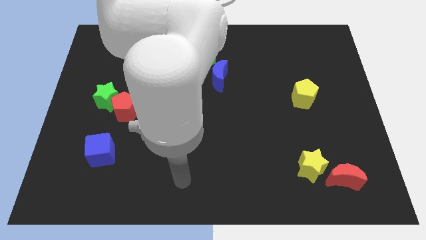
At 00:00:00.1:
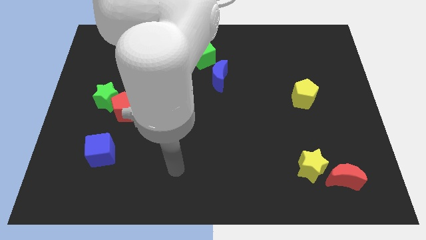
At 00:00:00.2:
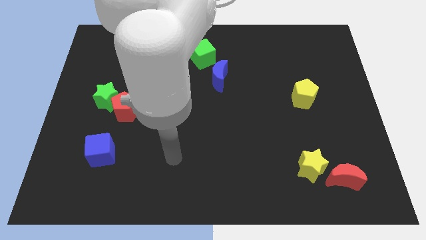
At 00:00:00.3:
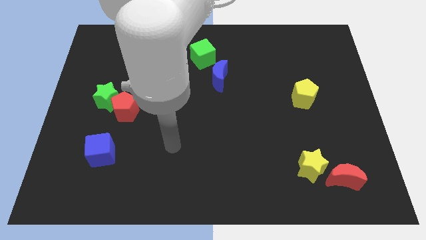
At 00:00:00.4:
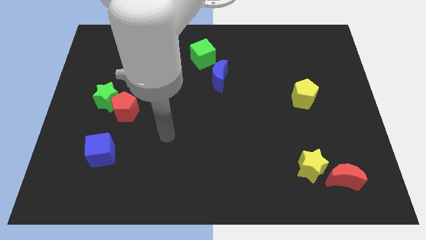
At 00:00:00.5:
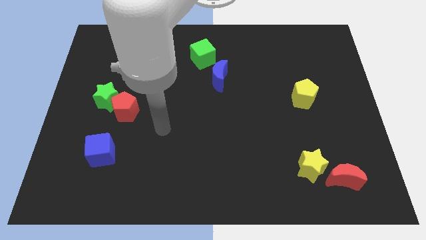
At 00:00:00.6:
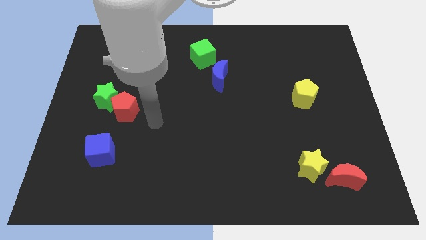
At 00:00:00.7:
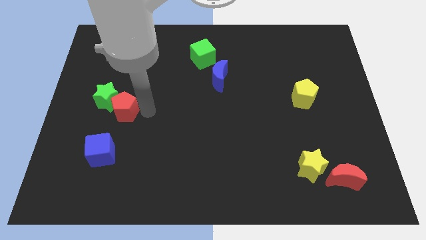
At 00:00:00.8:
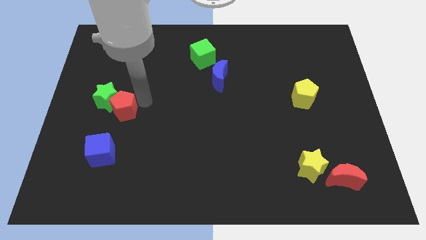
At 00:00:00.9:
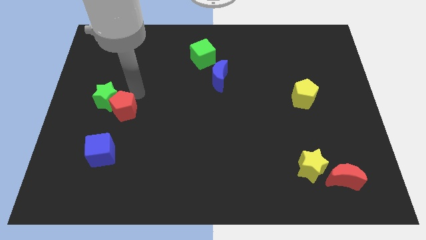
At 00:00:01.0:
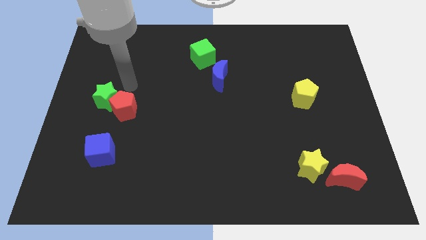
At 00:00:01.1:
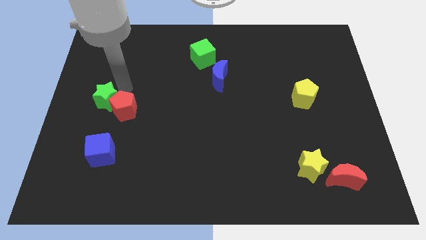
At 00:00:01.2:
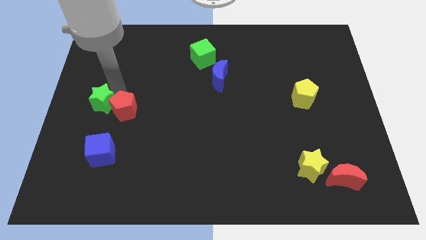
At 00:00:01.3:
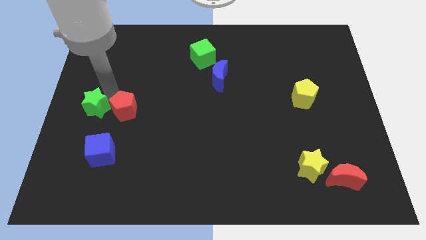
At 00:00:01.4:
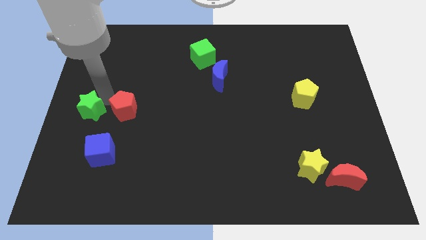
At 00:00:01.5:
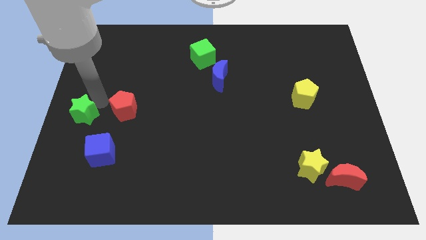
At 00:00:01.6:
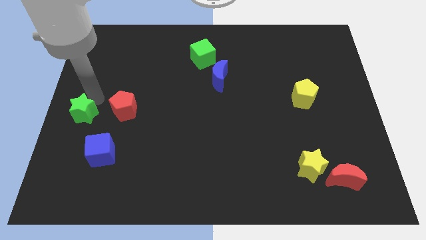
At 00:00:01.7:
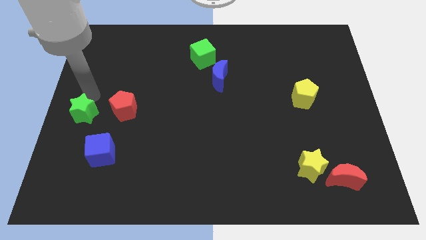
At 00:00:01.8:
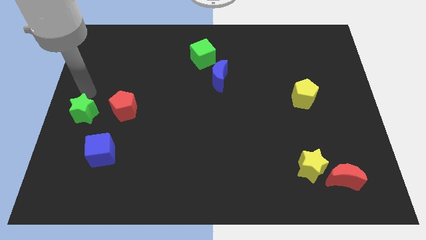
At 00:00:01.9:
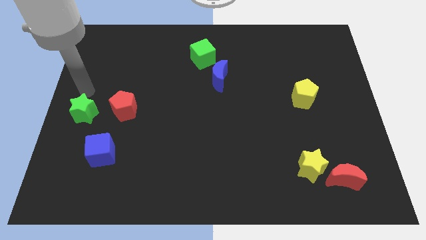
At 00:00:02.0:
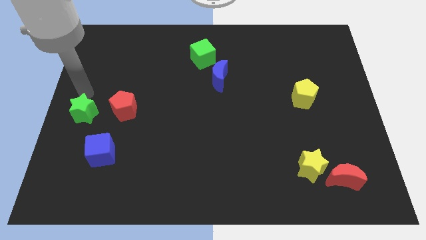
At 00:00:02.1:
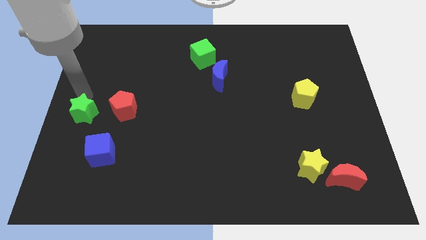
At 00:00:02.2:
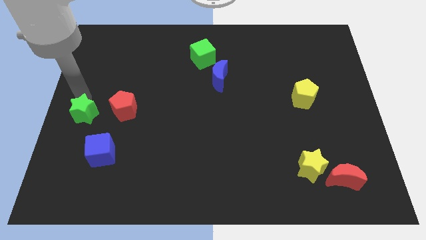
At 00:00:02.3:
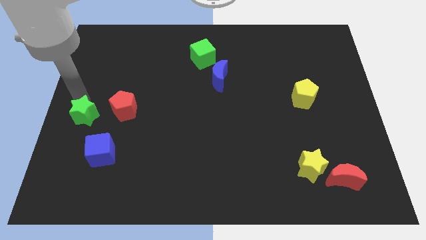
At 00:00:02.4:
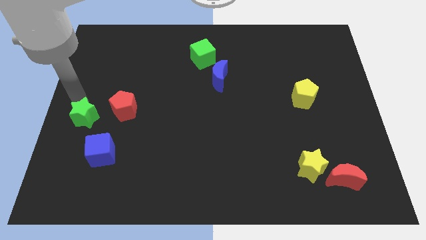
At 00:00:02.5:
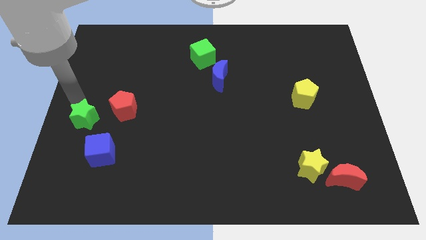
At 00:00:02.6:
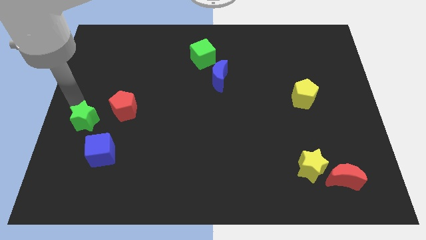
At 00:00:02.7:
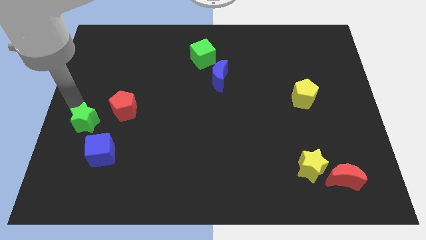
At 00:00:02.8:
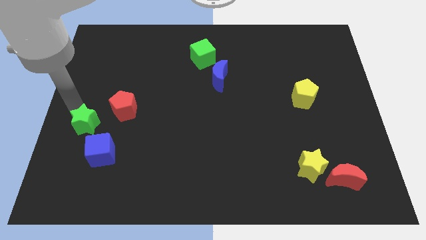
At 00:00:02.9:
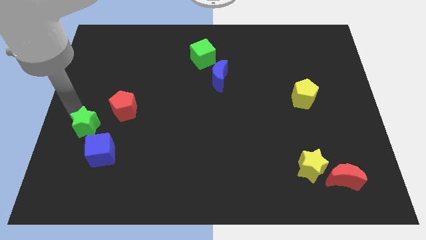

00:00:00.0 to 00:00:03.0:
move the green star down slightly

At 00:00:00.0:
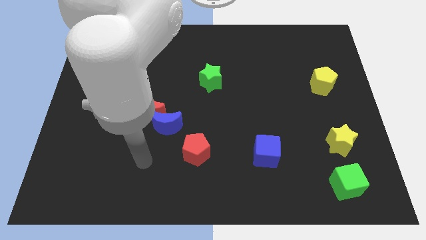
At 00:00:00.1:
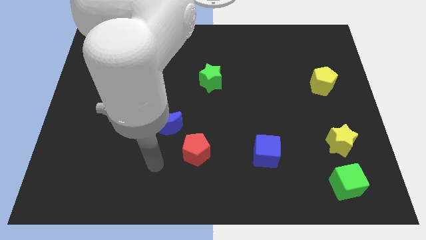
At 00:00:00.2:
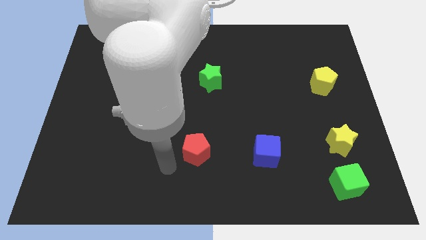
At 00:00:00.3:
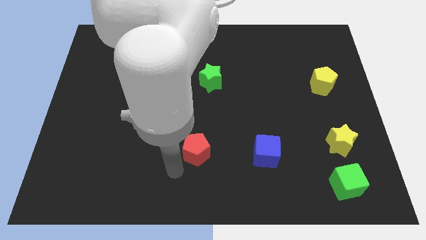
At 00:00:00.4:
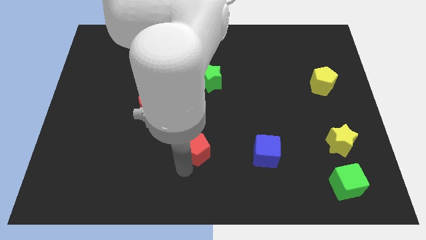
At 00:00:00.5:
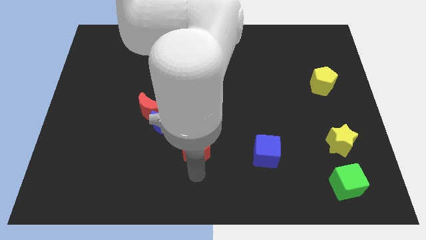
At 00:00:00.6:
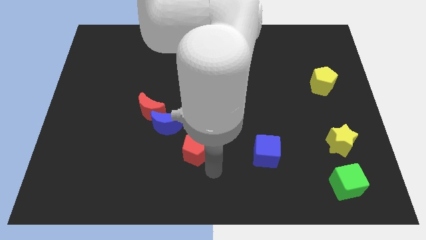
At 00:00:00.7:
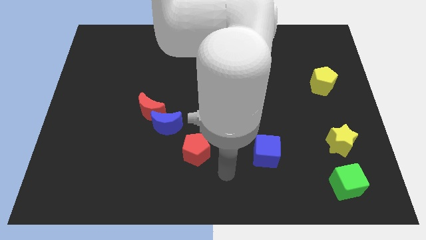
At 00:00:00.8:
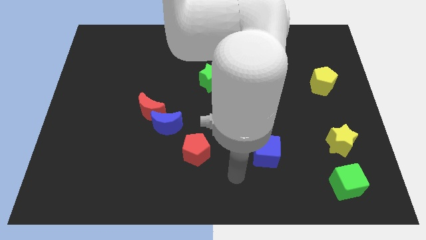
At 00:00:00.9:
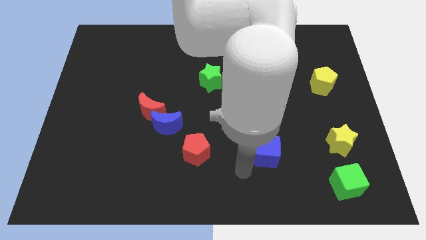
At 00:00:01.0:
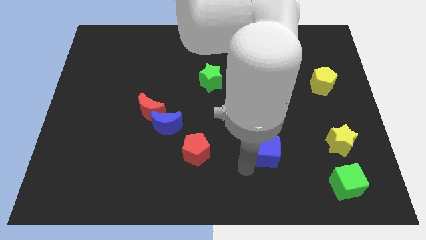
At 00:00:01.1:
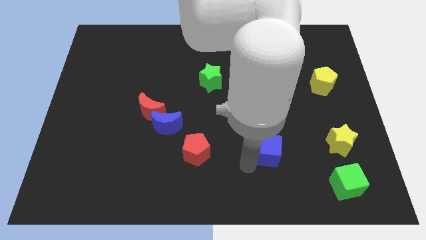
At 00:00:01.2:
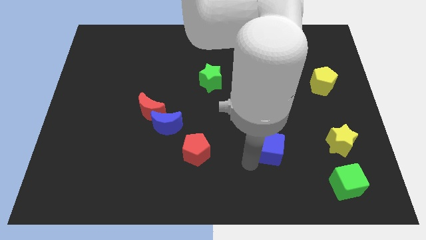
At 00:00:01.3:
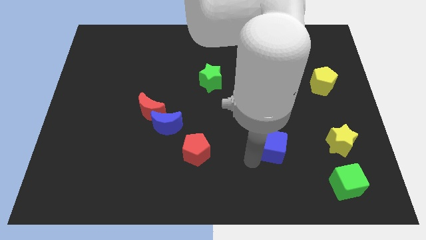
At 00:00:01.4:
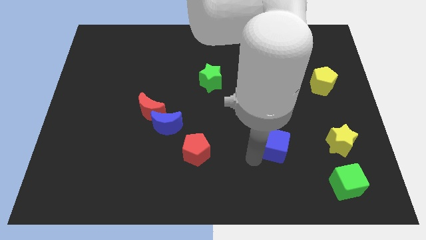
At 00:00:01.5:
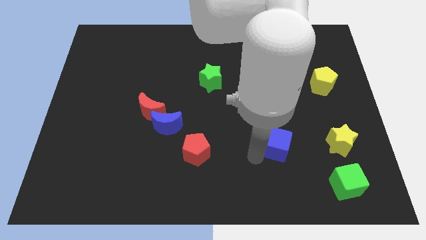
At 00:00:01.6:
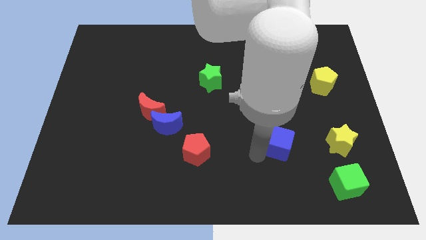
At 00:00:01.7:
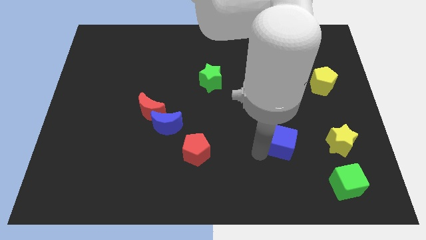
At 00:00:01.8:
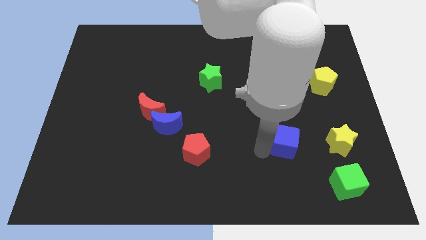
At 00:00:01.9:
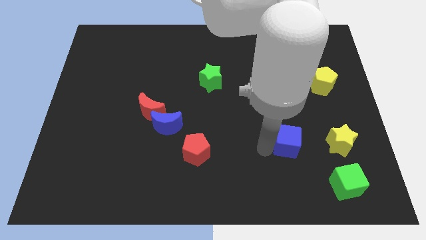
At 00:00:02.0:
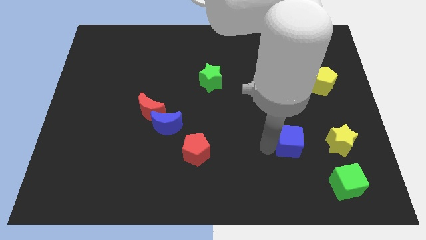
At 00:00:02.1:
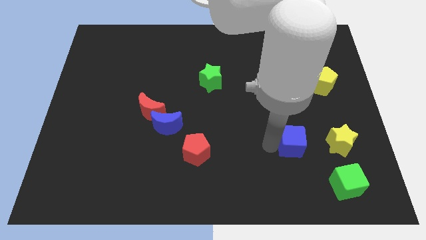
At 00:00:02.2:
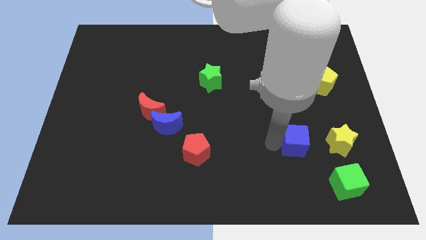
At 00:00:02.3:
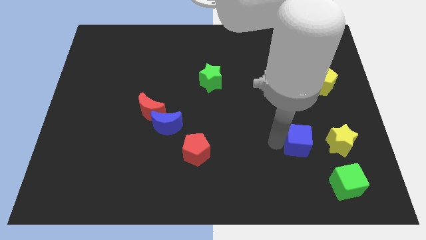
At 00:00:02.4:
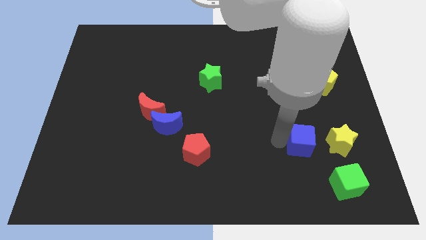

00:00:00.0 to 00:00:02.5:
slightly move the blue cube up and right

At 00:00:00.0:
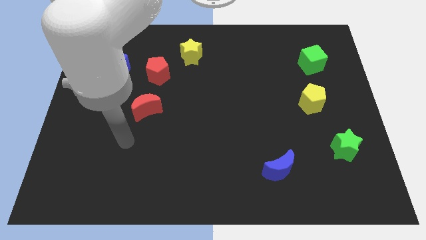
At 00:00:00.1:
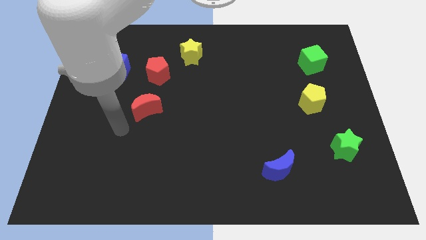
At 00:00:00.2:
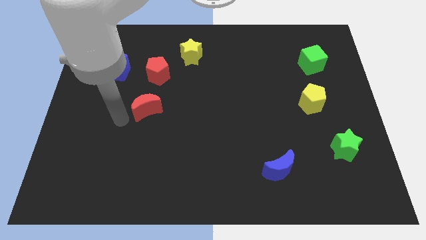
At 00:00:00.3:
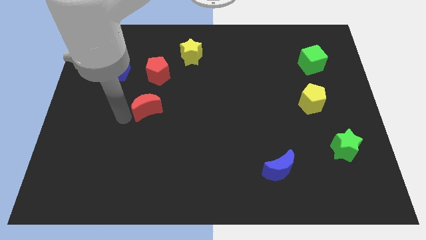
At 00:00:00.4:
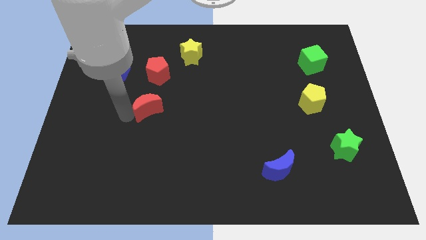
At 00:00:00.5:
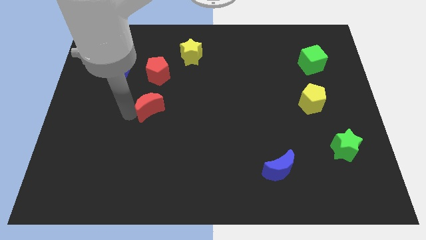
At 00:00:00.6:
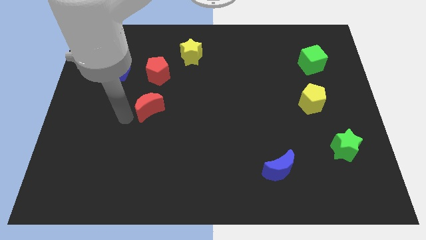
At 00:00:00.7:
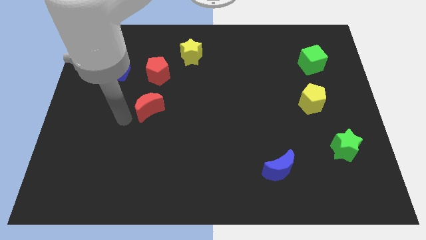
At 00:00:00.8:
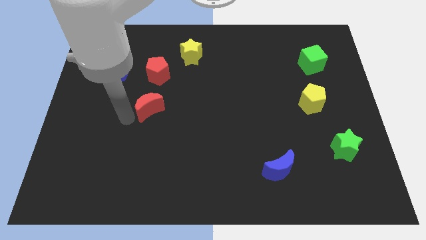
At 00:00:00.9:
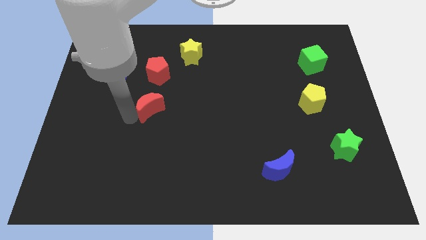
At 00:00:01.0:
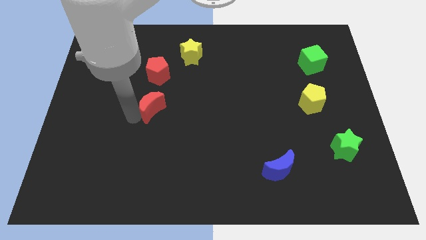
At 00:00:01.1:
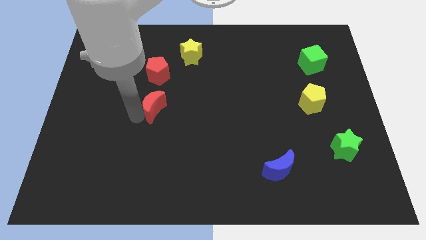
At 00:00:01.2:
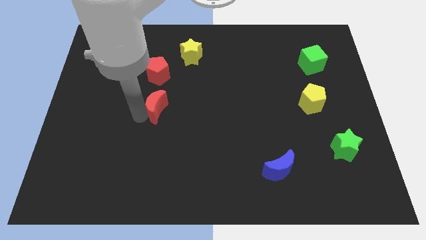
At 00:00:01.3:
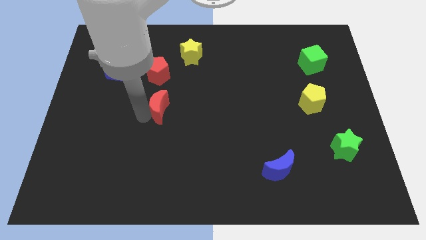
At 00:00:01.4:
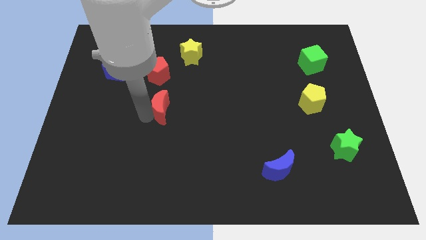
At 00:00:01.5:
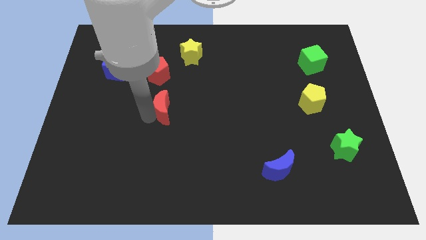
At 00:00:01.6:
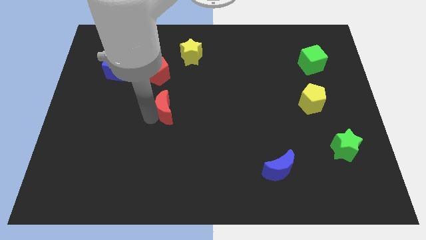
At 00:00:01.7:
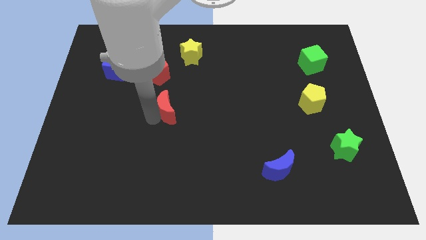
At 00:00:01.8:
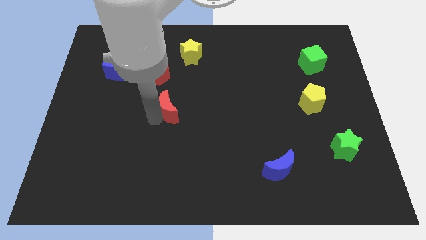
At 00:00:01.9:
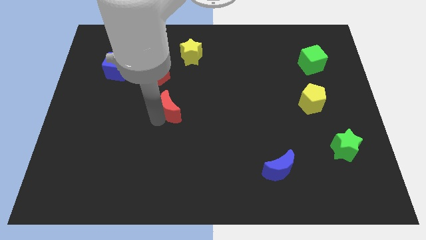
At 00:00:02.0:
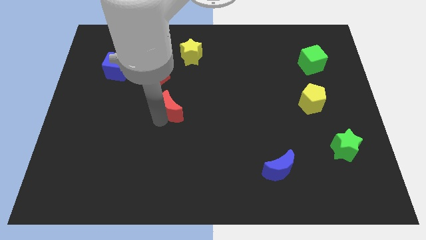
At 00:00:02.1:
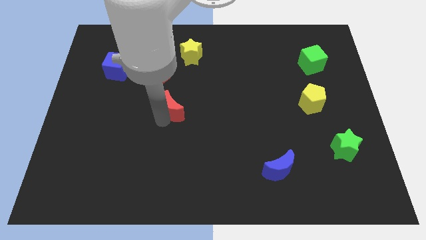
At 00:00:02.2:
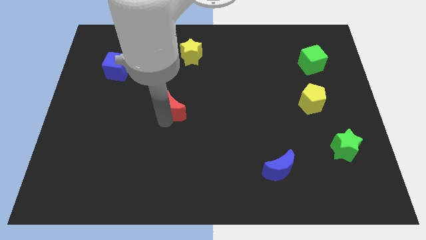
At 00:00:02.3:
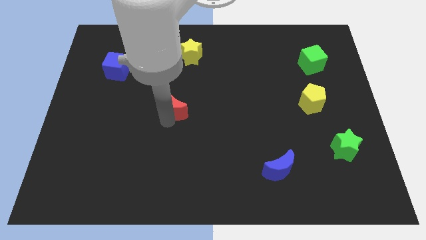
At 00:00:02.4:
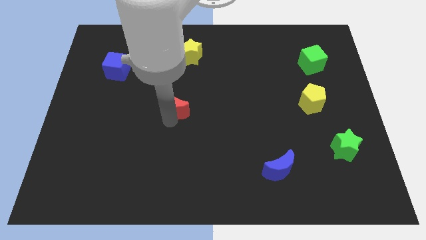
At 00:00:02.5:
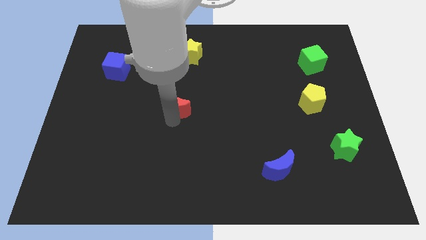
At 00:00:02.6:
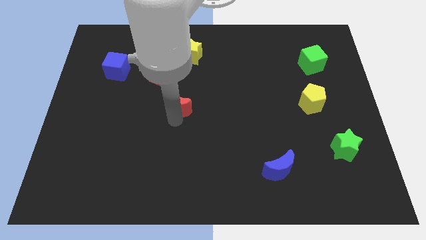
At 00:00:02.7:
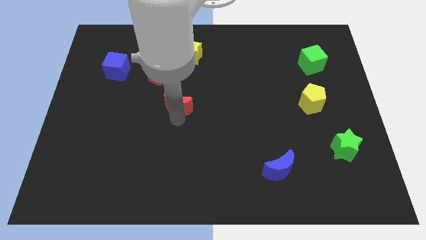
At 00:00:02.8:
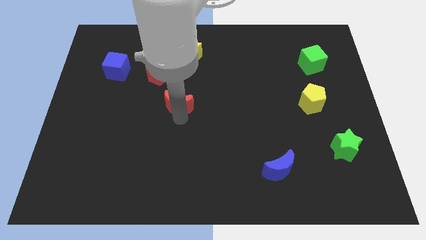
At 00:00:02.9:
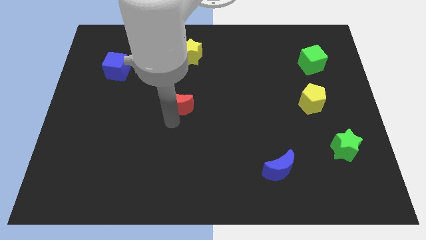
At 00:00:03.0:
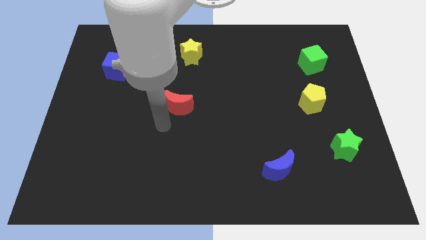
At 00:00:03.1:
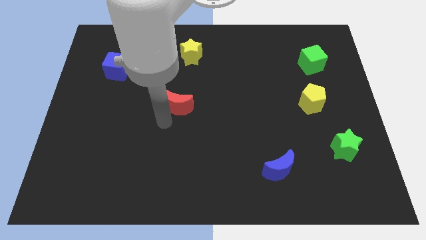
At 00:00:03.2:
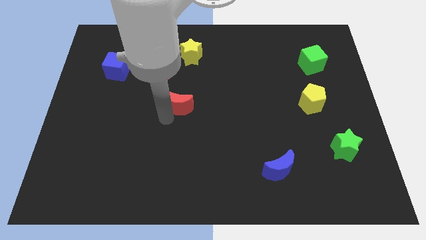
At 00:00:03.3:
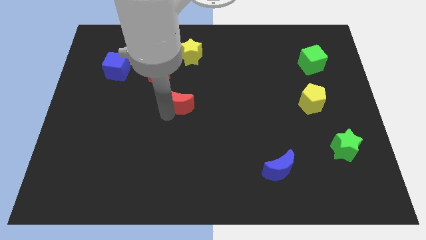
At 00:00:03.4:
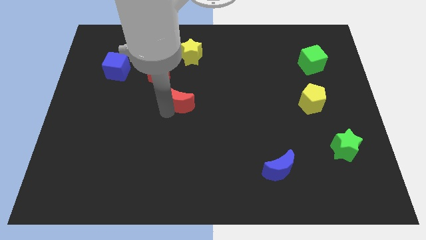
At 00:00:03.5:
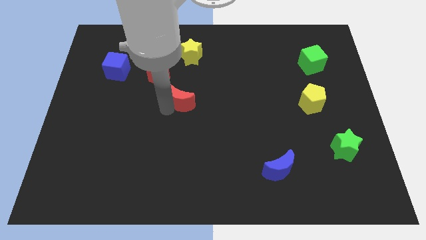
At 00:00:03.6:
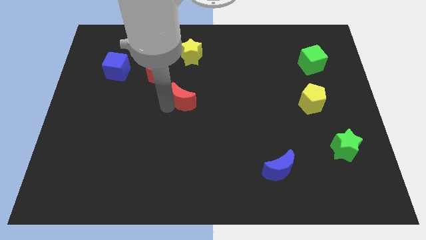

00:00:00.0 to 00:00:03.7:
move the red moon up and right a little bit
